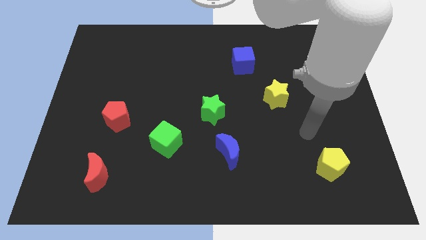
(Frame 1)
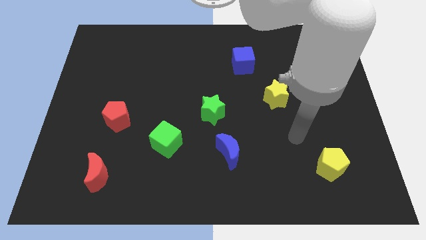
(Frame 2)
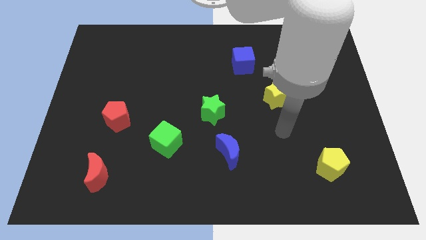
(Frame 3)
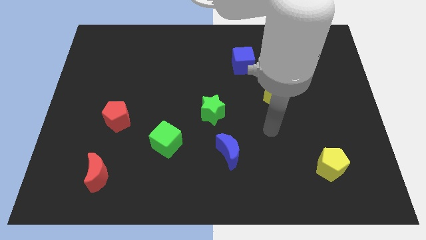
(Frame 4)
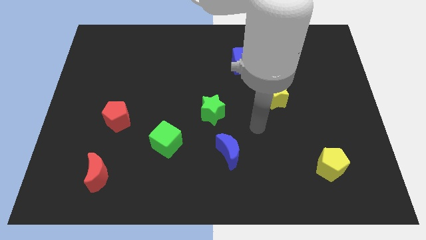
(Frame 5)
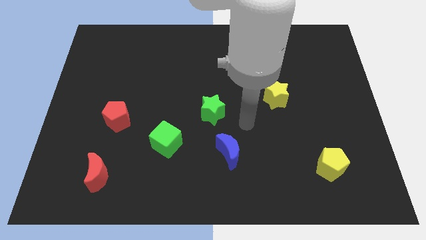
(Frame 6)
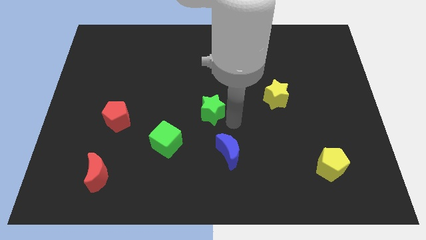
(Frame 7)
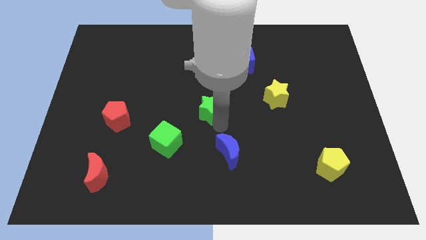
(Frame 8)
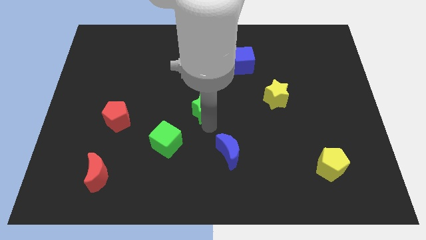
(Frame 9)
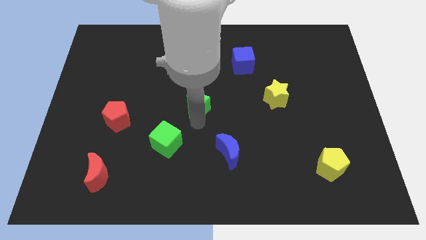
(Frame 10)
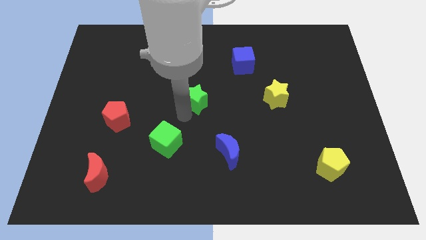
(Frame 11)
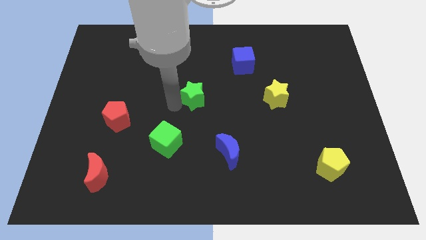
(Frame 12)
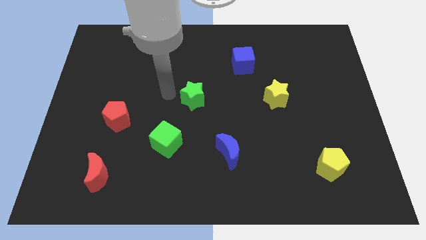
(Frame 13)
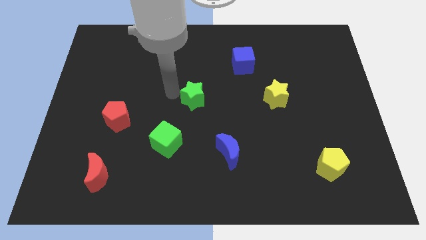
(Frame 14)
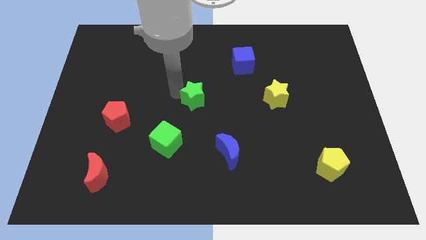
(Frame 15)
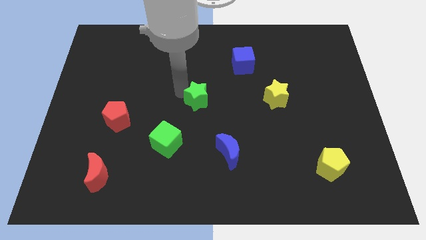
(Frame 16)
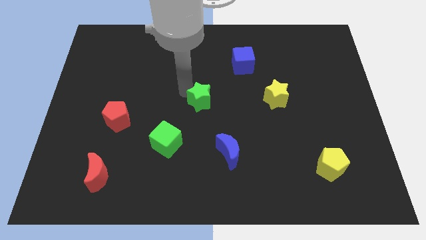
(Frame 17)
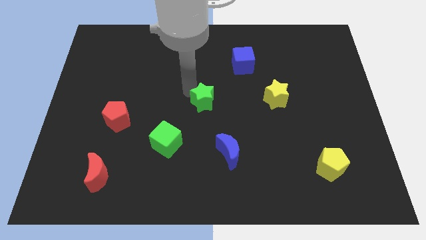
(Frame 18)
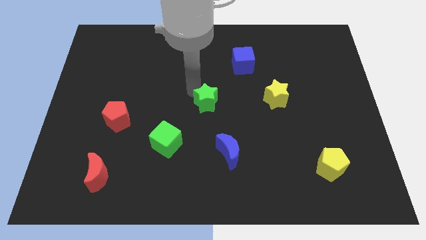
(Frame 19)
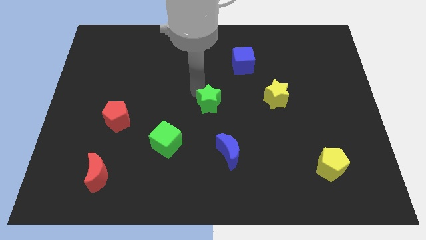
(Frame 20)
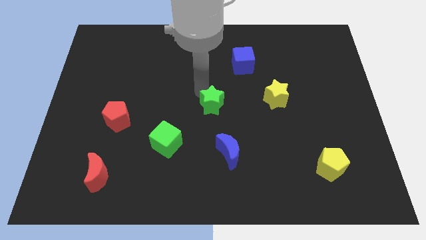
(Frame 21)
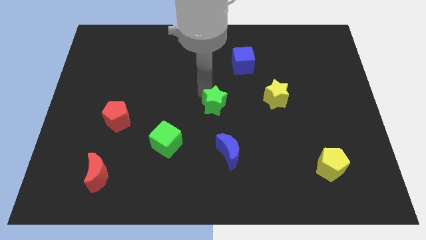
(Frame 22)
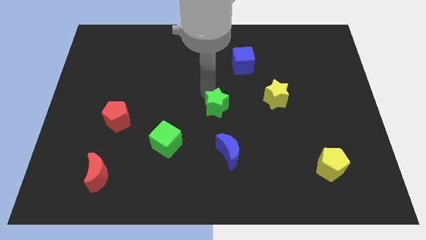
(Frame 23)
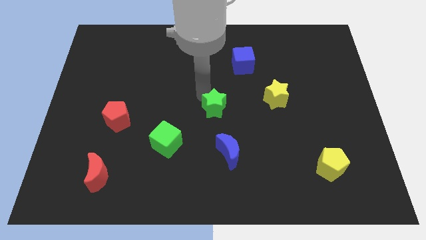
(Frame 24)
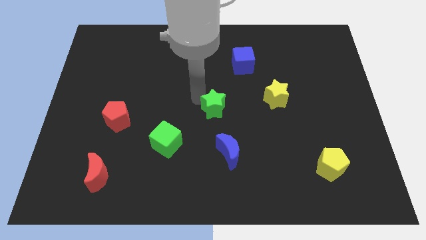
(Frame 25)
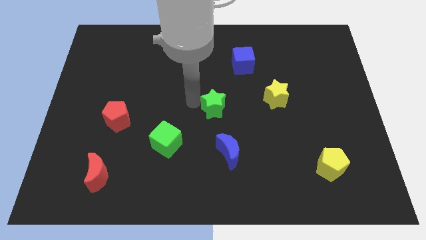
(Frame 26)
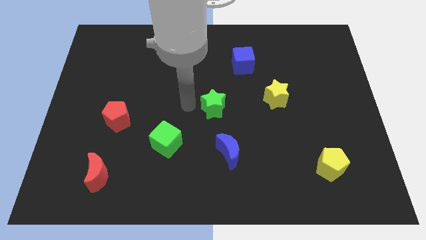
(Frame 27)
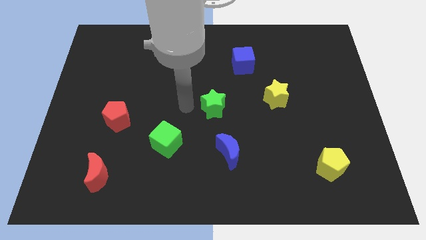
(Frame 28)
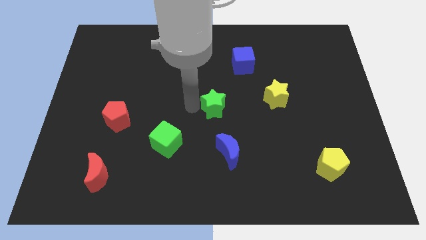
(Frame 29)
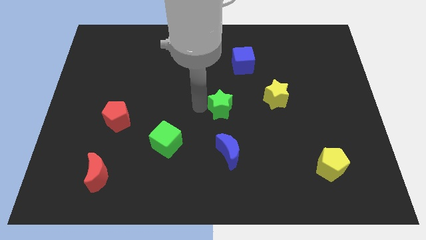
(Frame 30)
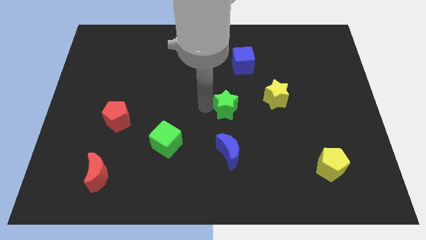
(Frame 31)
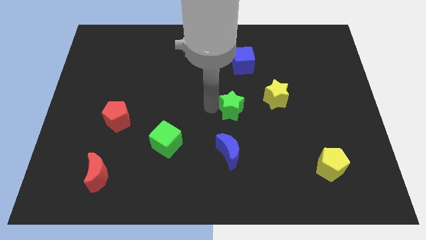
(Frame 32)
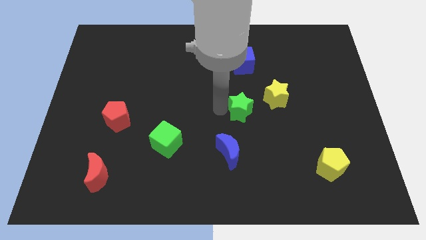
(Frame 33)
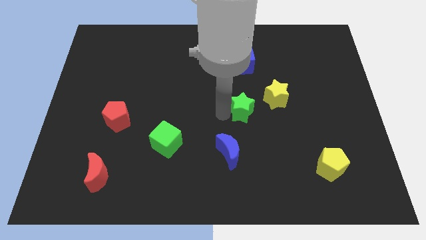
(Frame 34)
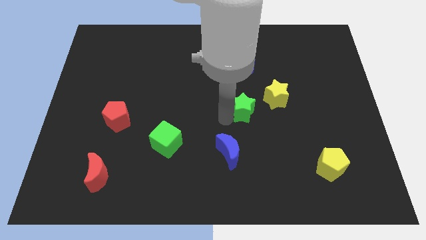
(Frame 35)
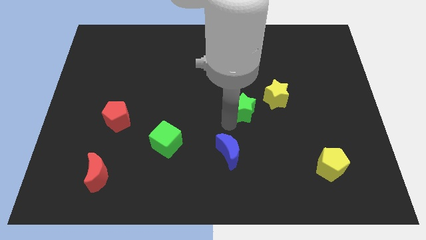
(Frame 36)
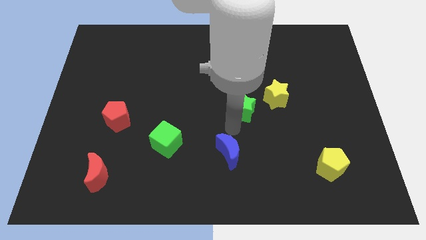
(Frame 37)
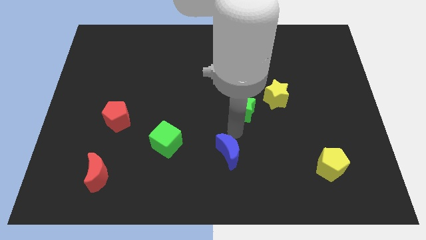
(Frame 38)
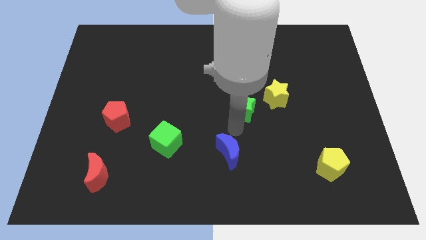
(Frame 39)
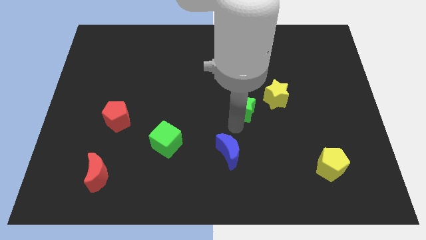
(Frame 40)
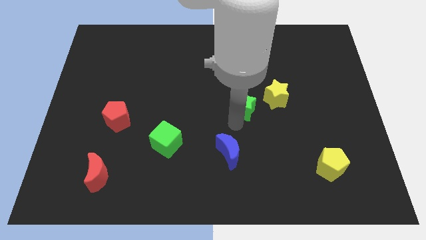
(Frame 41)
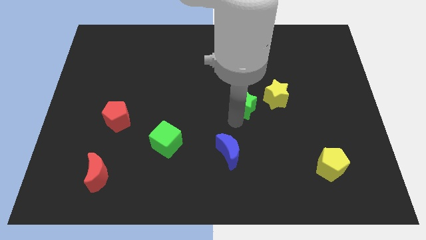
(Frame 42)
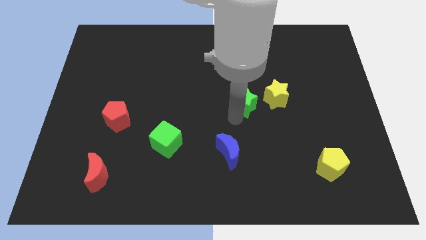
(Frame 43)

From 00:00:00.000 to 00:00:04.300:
slightly move the green star up and then right

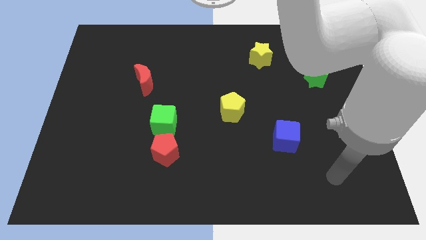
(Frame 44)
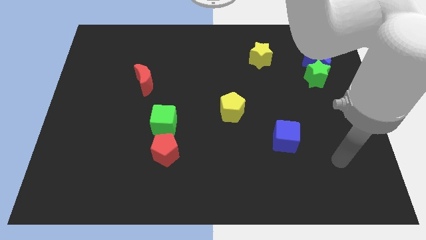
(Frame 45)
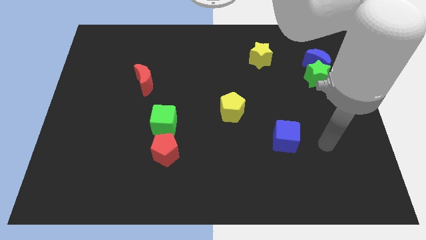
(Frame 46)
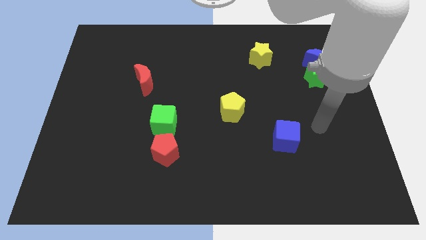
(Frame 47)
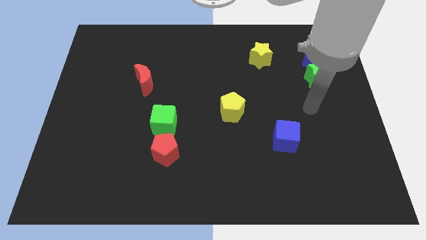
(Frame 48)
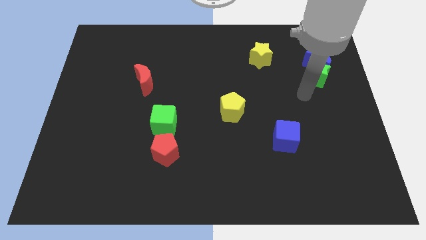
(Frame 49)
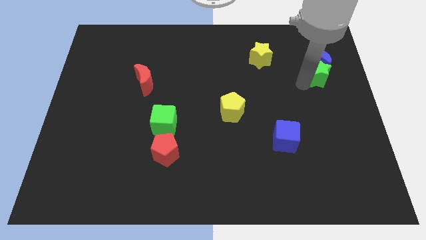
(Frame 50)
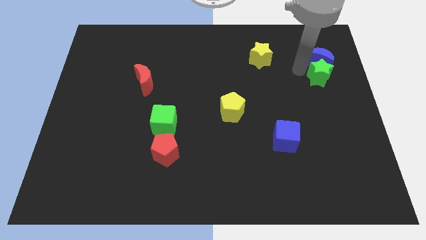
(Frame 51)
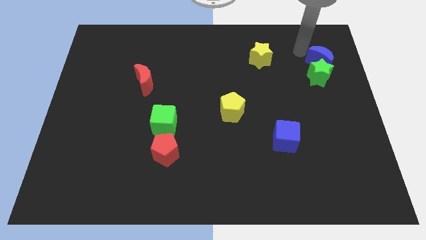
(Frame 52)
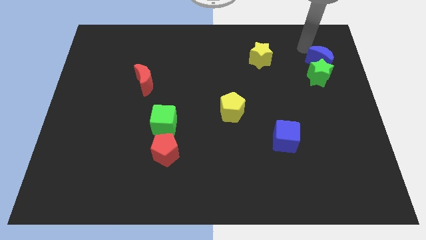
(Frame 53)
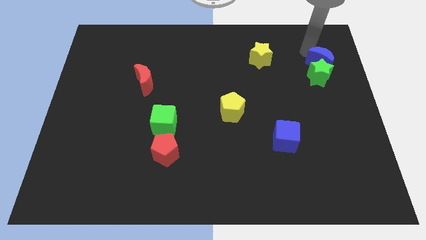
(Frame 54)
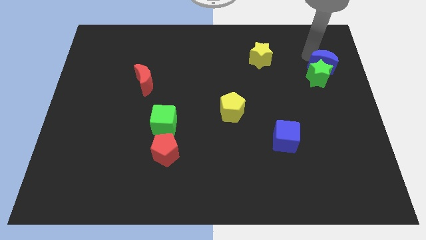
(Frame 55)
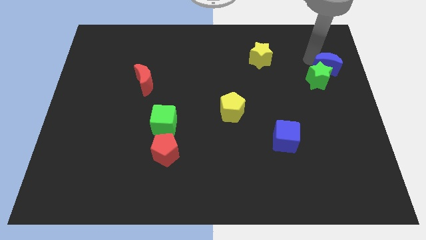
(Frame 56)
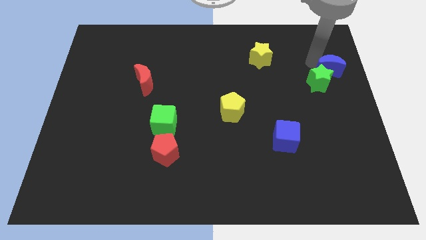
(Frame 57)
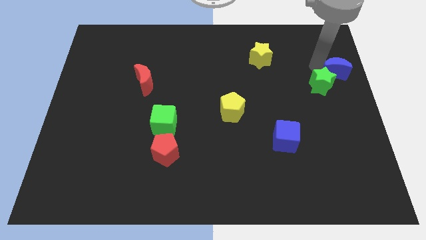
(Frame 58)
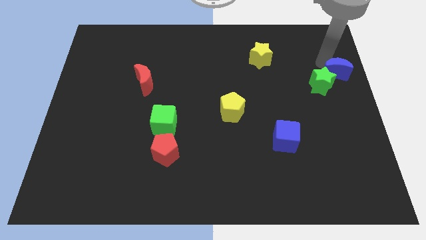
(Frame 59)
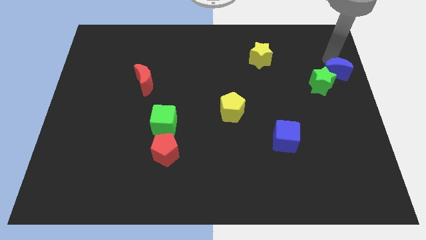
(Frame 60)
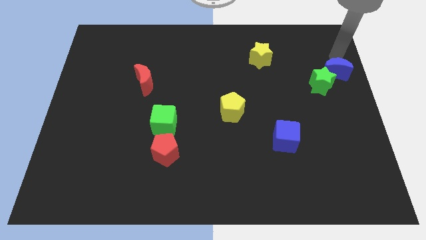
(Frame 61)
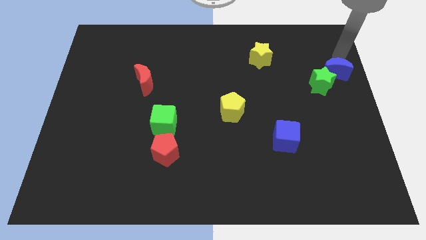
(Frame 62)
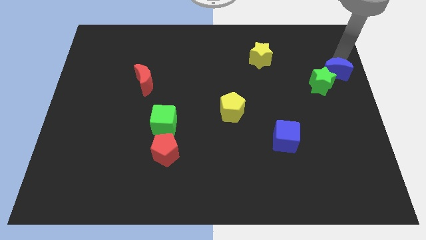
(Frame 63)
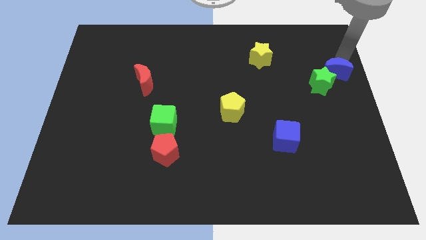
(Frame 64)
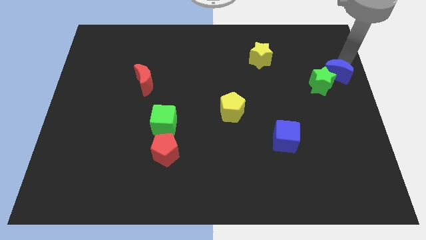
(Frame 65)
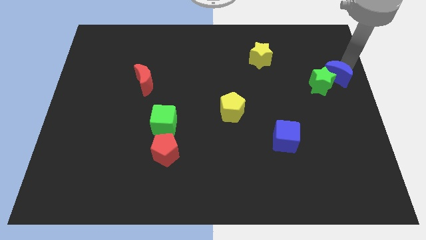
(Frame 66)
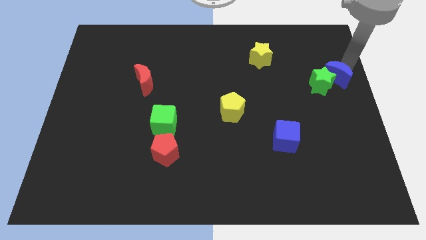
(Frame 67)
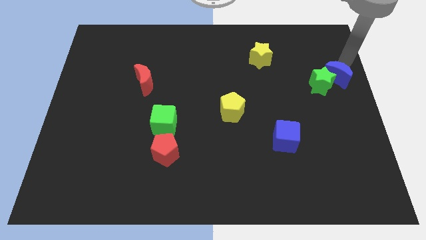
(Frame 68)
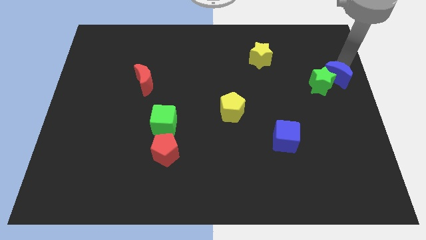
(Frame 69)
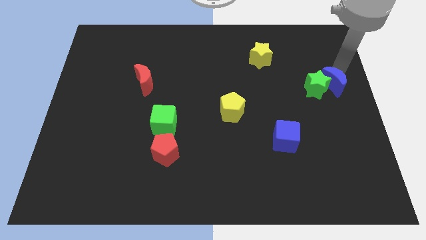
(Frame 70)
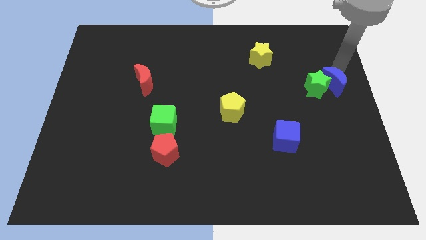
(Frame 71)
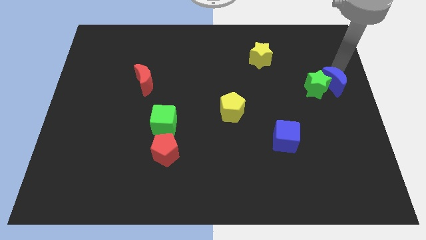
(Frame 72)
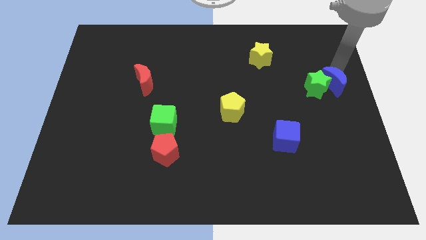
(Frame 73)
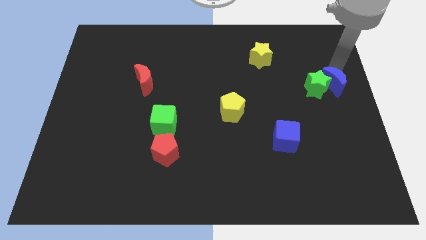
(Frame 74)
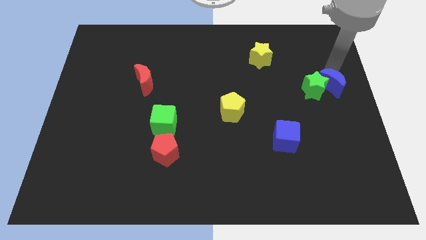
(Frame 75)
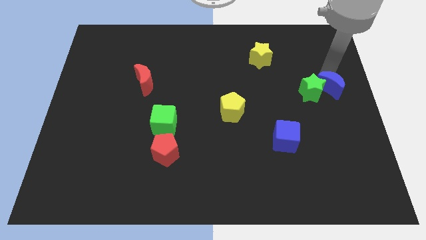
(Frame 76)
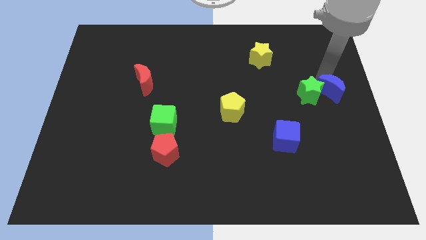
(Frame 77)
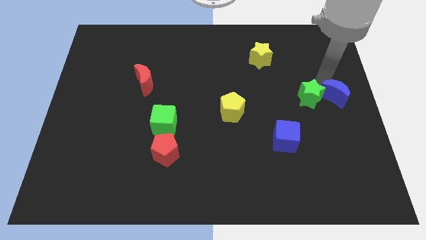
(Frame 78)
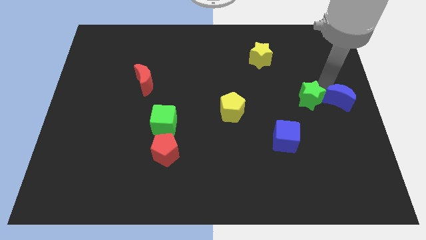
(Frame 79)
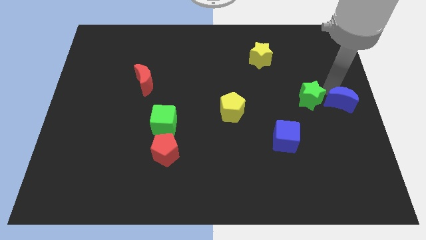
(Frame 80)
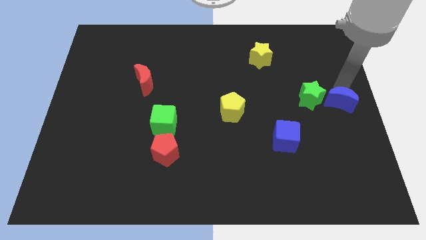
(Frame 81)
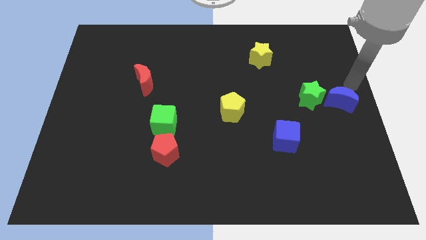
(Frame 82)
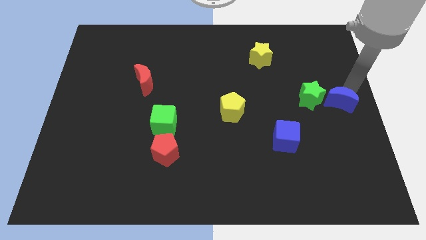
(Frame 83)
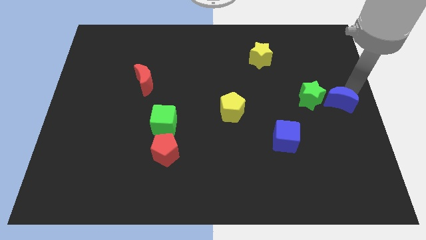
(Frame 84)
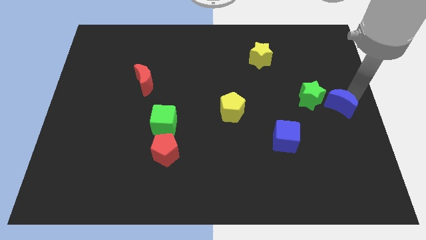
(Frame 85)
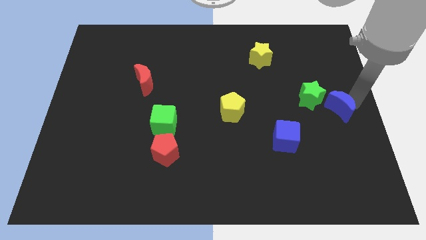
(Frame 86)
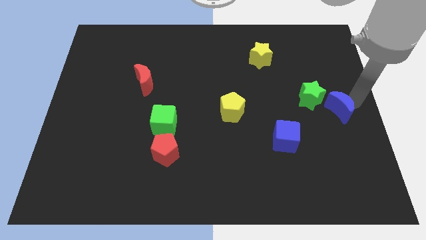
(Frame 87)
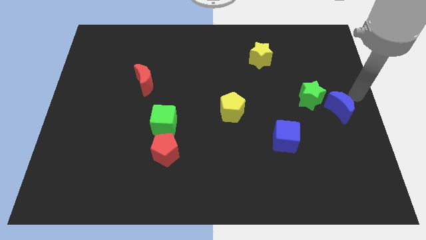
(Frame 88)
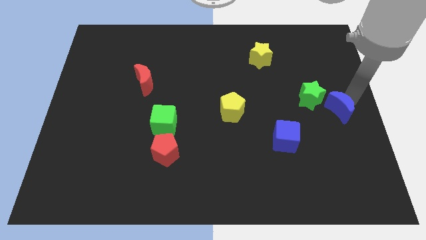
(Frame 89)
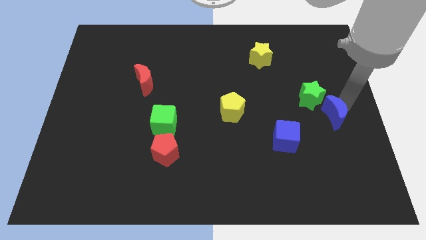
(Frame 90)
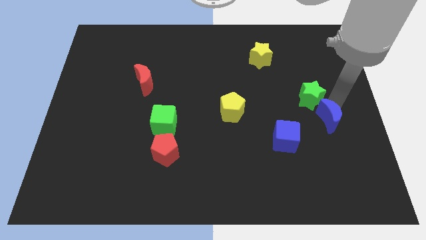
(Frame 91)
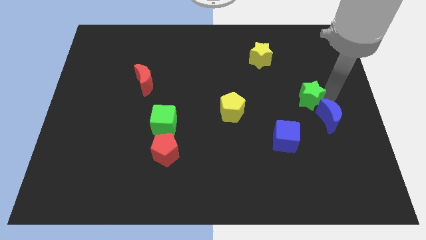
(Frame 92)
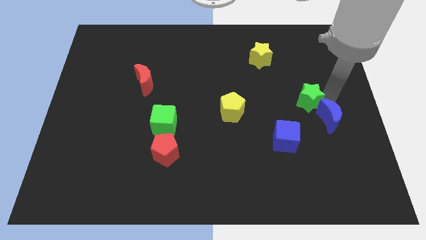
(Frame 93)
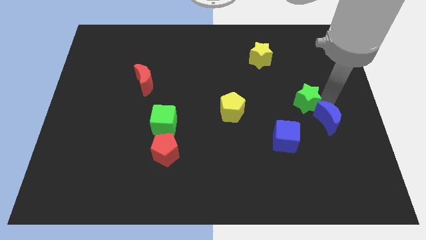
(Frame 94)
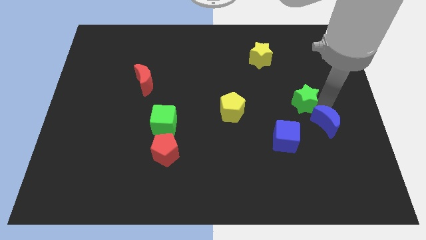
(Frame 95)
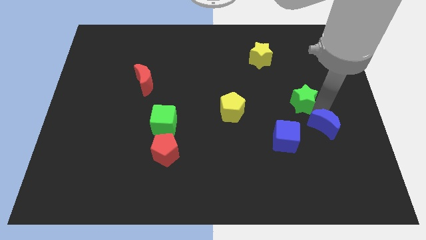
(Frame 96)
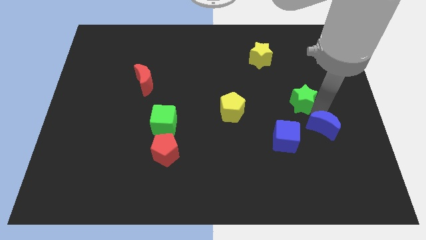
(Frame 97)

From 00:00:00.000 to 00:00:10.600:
move the blue moon down
